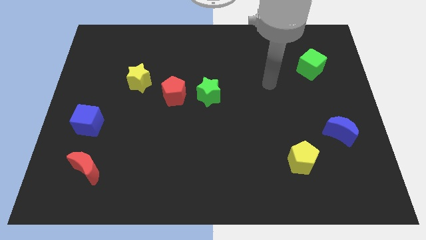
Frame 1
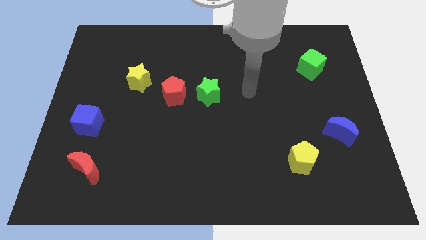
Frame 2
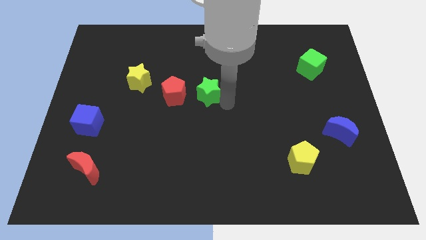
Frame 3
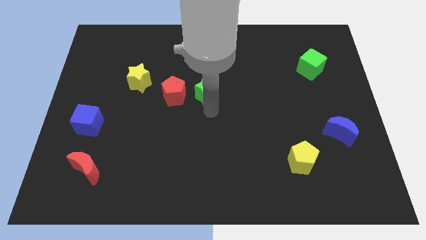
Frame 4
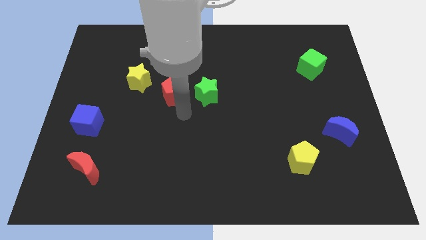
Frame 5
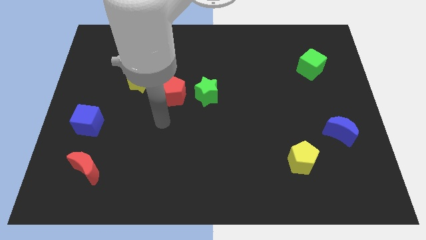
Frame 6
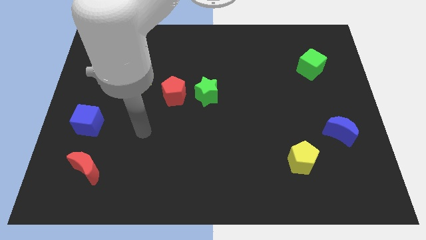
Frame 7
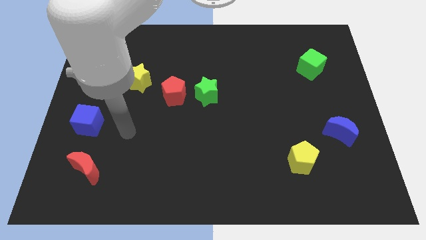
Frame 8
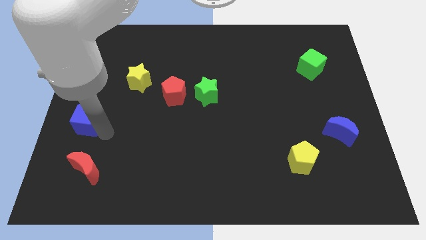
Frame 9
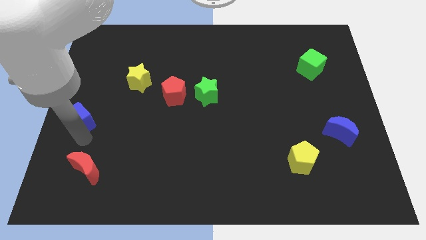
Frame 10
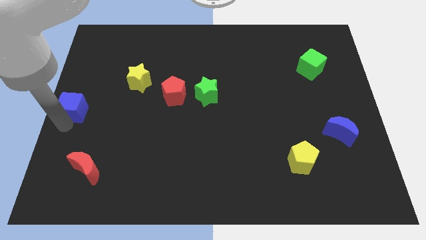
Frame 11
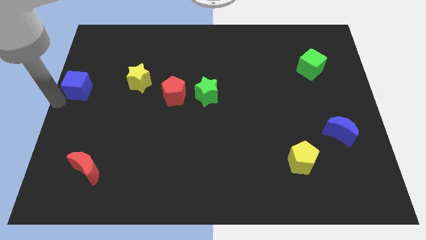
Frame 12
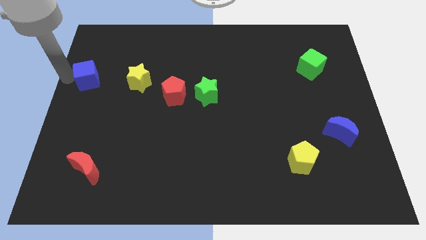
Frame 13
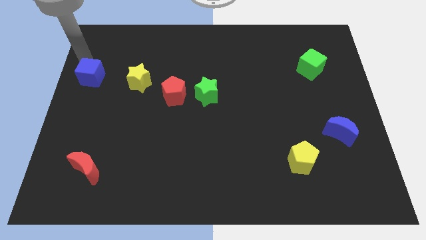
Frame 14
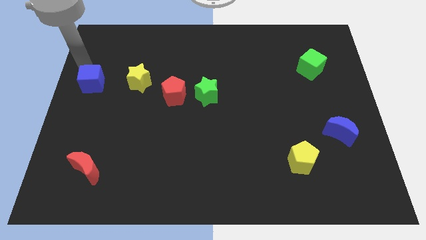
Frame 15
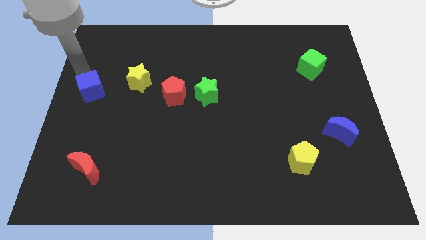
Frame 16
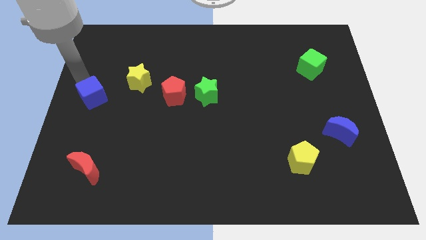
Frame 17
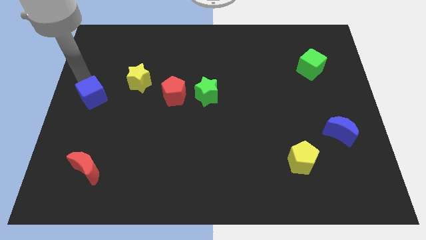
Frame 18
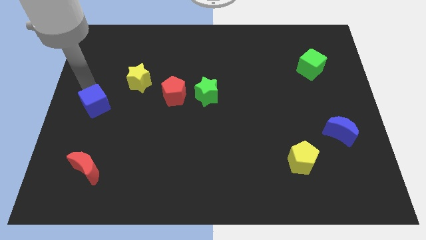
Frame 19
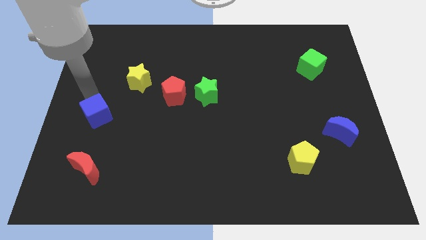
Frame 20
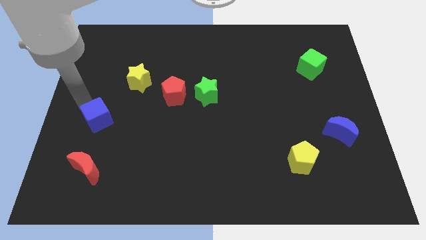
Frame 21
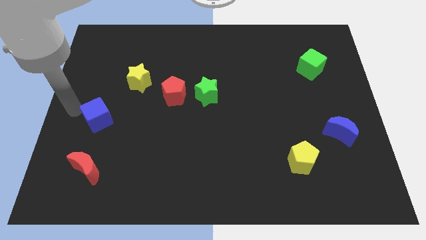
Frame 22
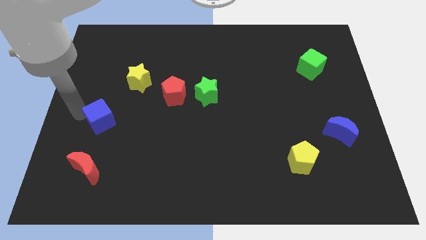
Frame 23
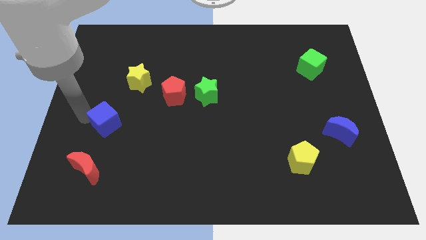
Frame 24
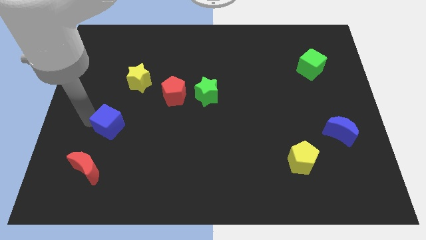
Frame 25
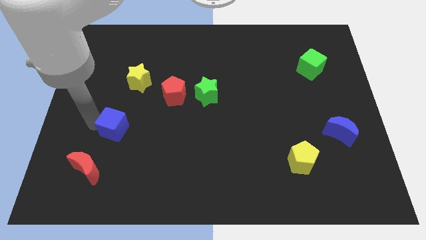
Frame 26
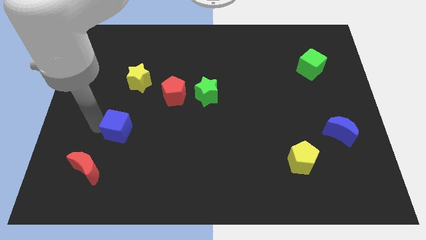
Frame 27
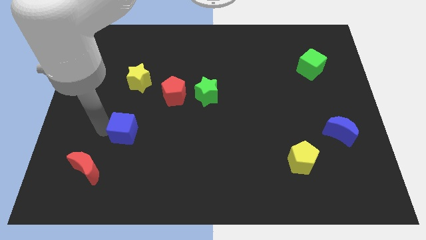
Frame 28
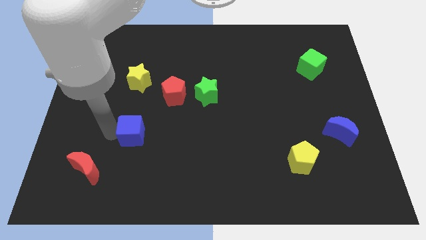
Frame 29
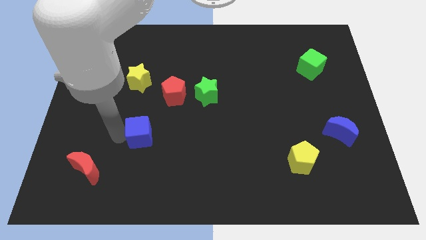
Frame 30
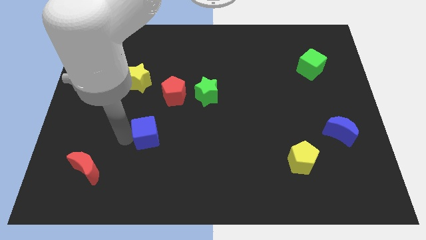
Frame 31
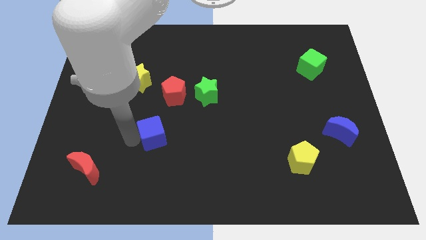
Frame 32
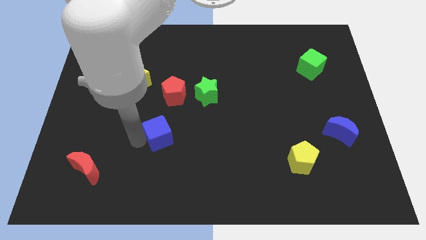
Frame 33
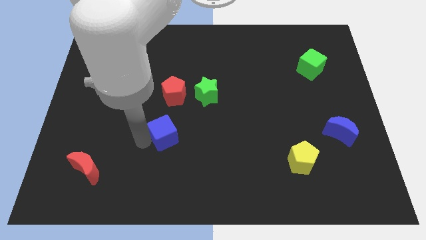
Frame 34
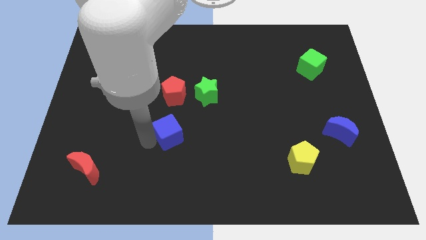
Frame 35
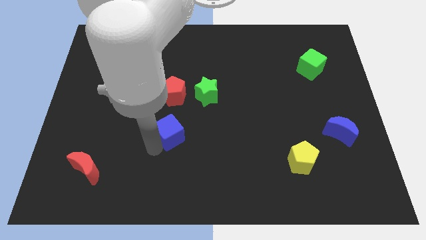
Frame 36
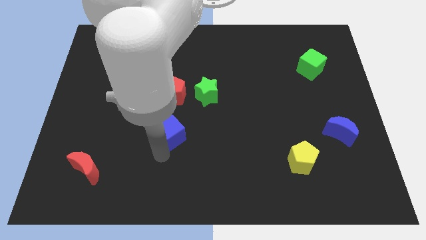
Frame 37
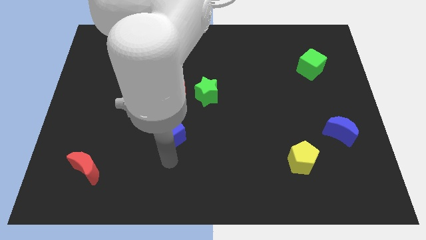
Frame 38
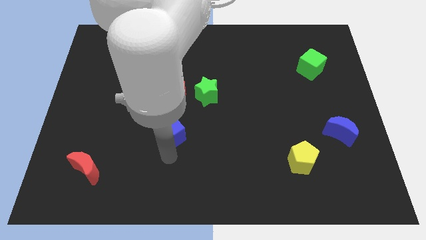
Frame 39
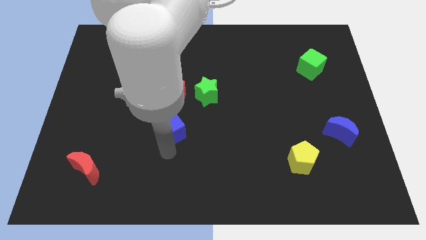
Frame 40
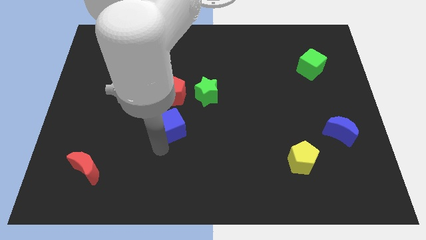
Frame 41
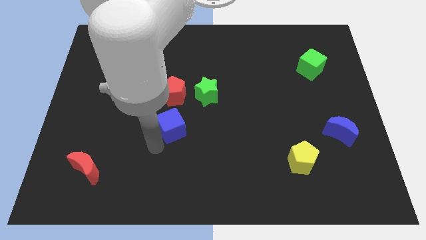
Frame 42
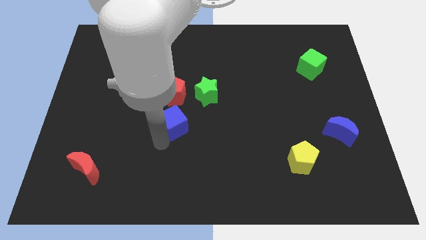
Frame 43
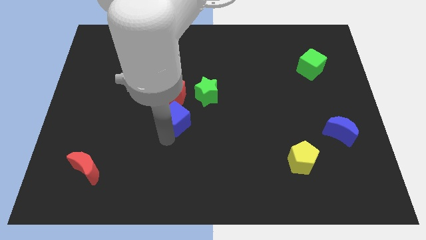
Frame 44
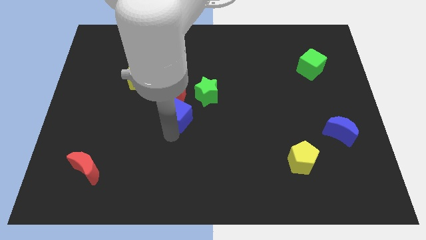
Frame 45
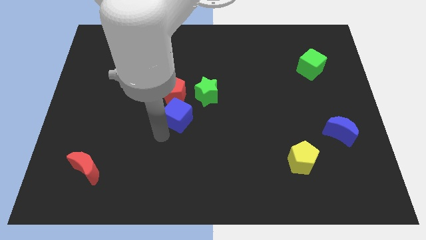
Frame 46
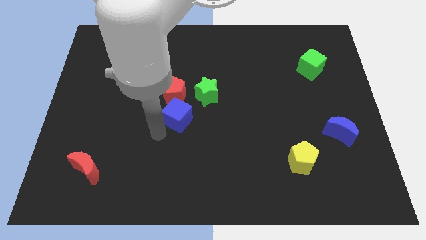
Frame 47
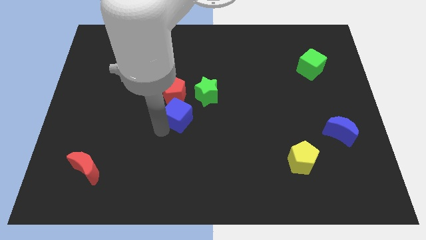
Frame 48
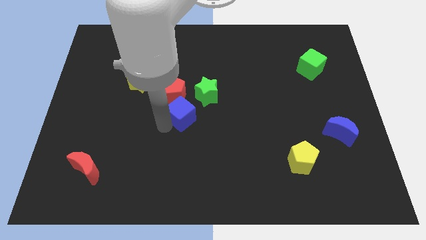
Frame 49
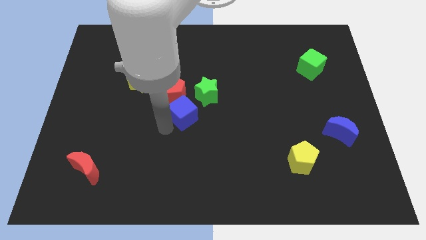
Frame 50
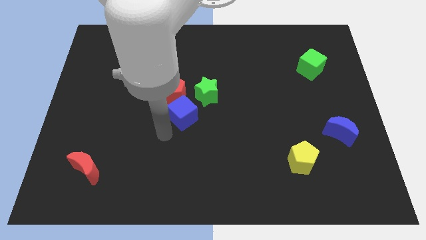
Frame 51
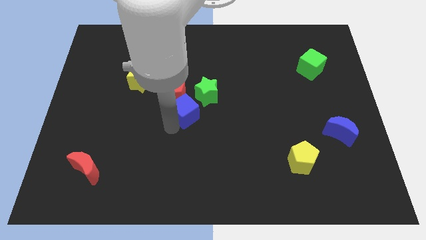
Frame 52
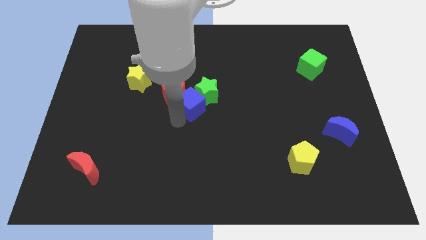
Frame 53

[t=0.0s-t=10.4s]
push the blue cube to the green star
